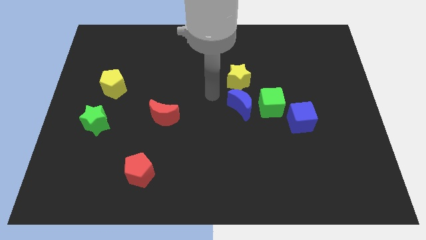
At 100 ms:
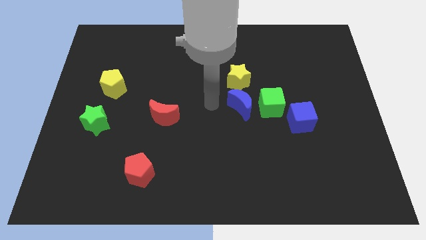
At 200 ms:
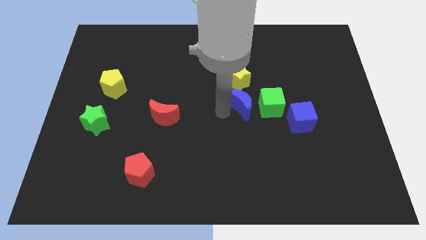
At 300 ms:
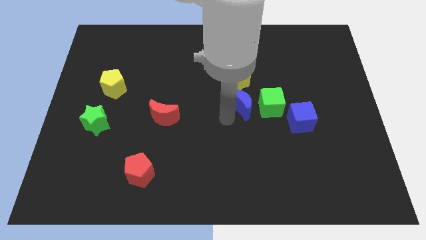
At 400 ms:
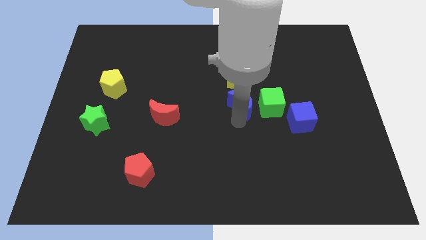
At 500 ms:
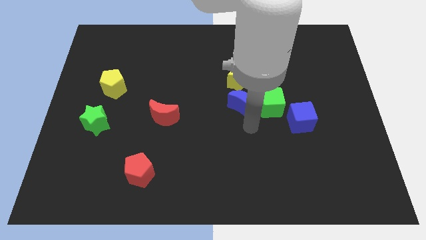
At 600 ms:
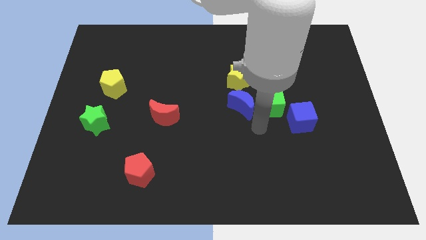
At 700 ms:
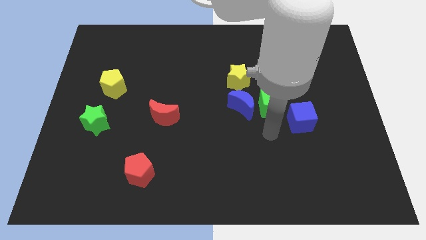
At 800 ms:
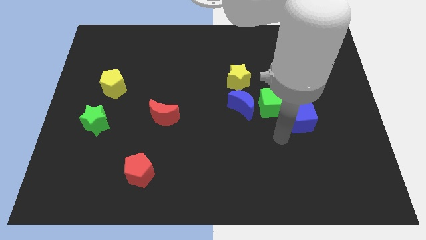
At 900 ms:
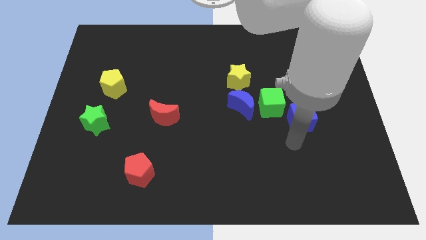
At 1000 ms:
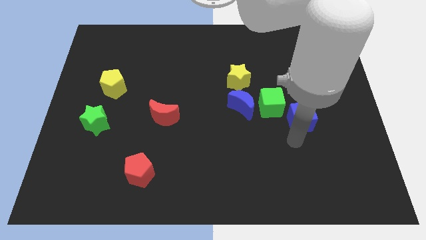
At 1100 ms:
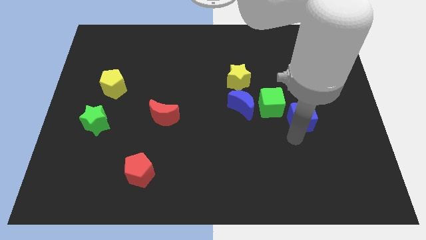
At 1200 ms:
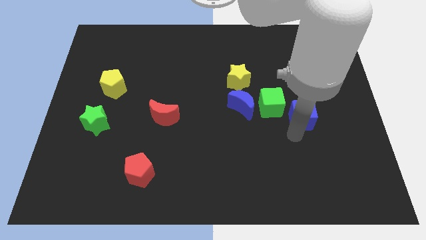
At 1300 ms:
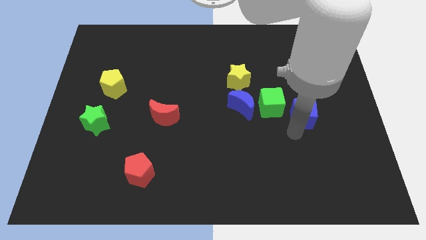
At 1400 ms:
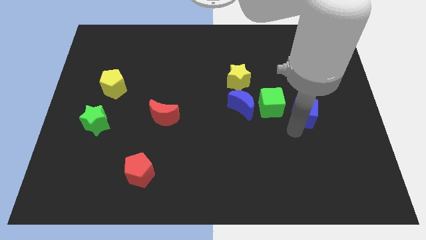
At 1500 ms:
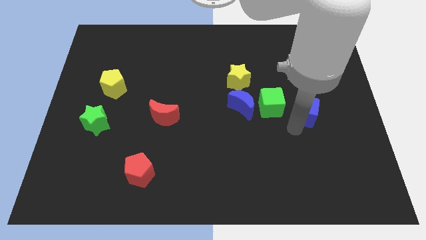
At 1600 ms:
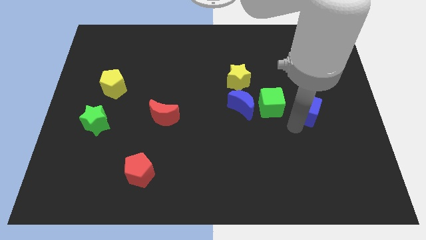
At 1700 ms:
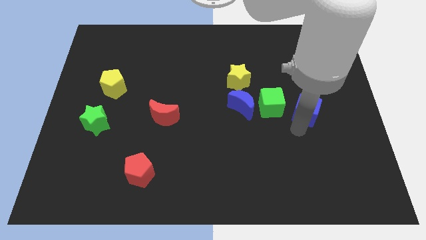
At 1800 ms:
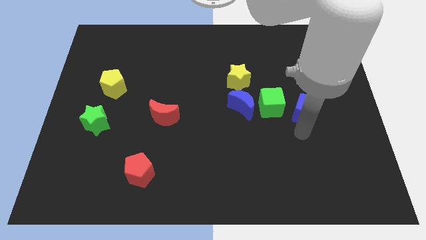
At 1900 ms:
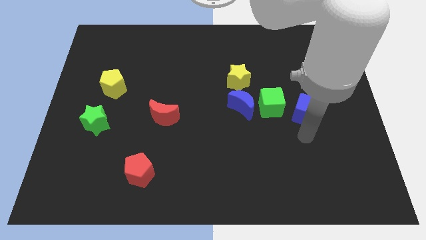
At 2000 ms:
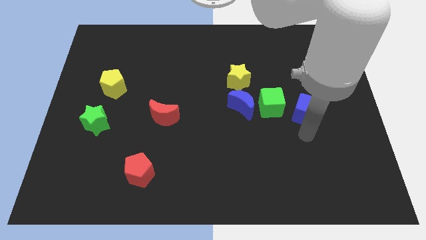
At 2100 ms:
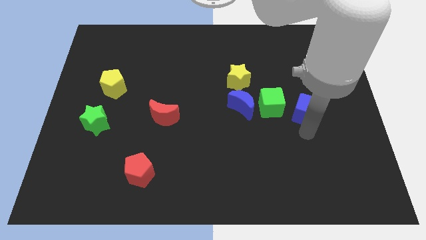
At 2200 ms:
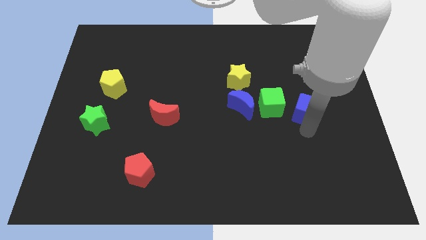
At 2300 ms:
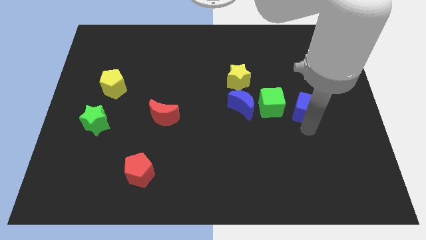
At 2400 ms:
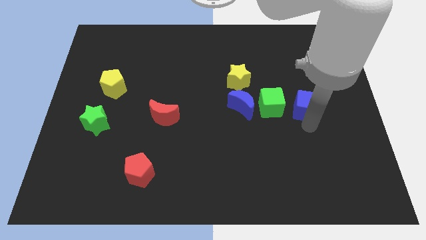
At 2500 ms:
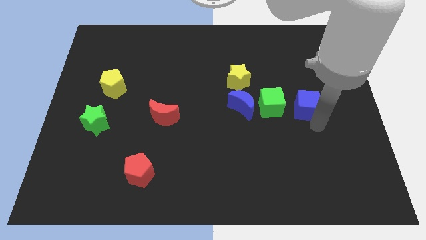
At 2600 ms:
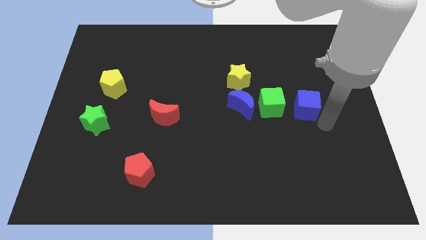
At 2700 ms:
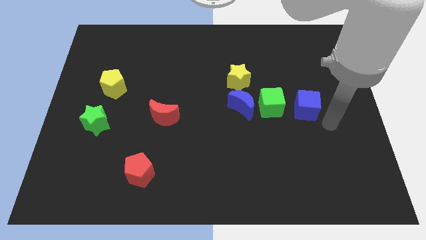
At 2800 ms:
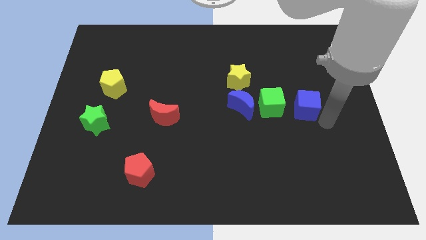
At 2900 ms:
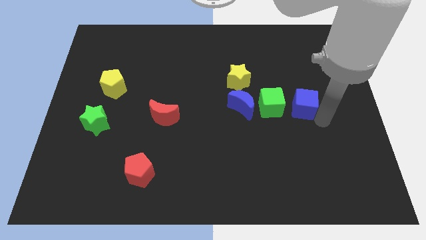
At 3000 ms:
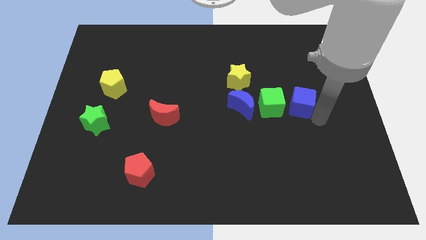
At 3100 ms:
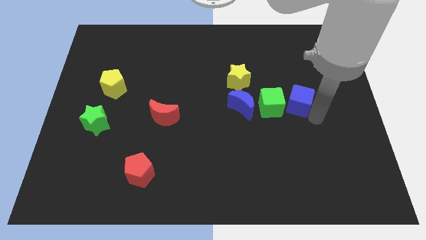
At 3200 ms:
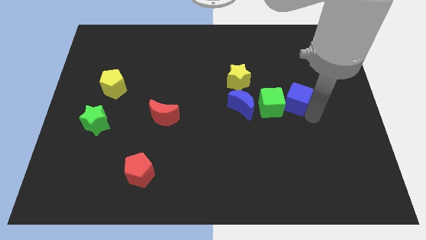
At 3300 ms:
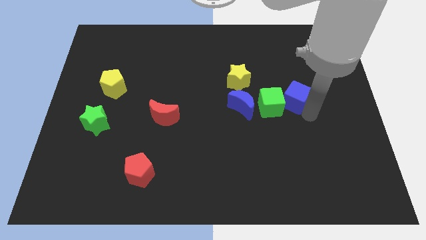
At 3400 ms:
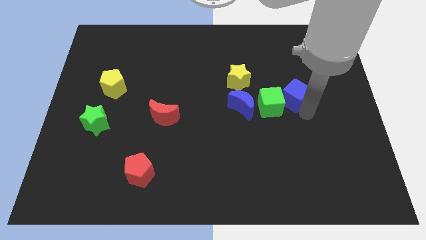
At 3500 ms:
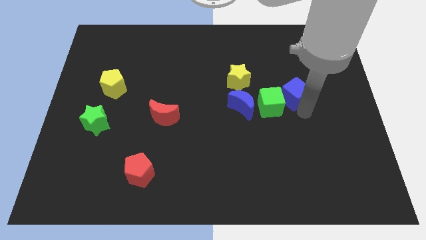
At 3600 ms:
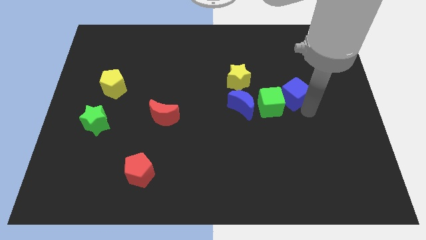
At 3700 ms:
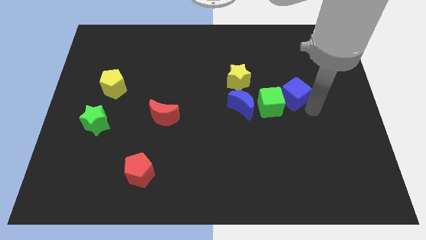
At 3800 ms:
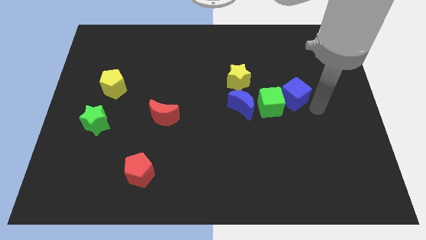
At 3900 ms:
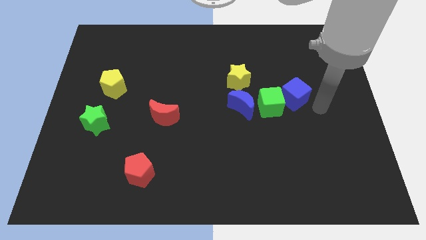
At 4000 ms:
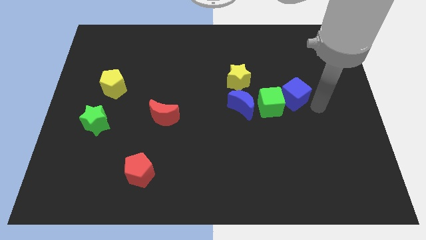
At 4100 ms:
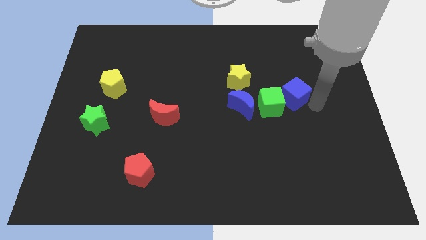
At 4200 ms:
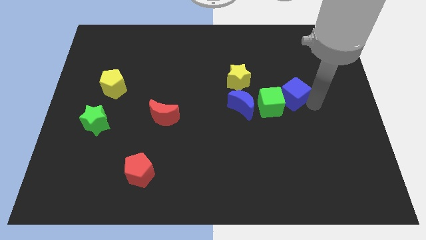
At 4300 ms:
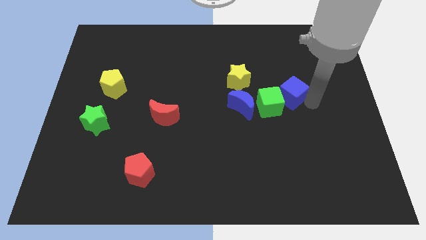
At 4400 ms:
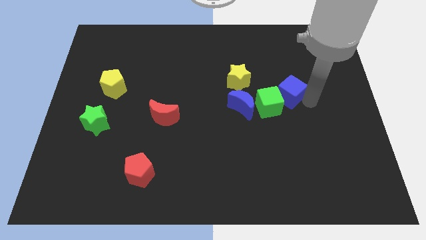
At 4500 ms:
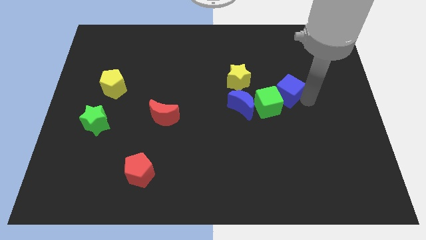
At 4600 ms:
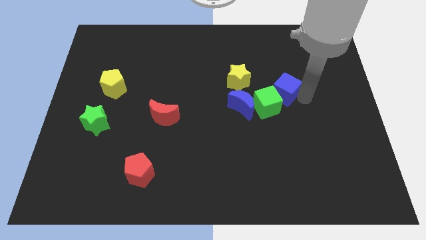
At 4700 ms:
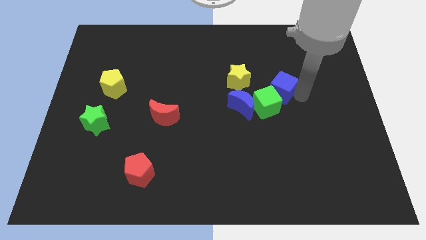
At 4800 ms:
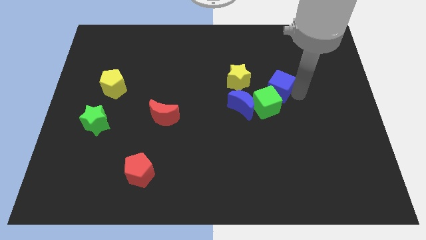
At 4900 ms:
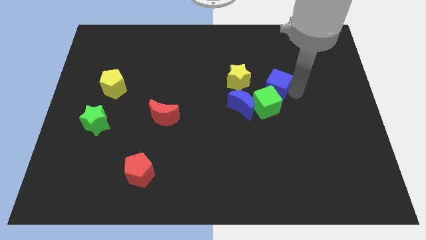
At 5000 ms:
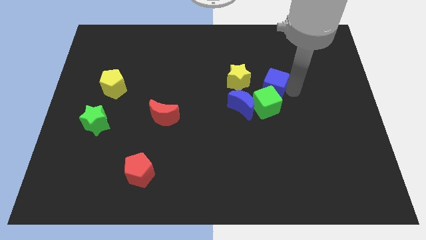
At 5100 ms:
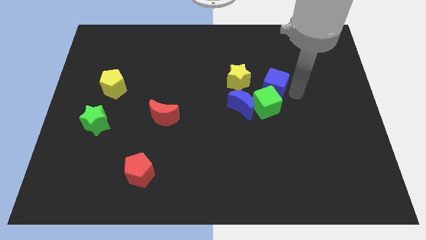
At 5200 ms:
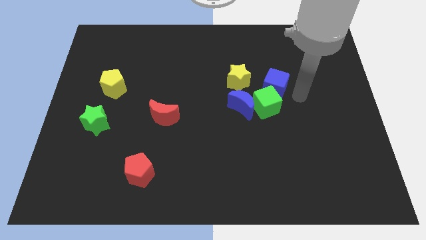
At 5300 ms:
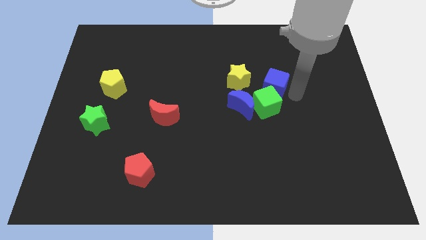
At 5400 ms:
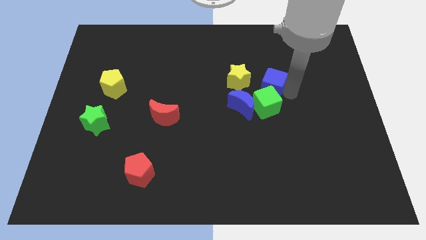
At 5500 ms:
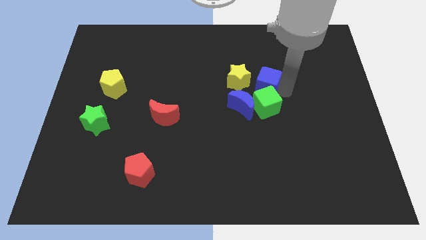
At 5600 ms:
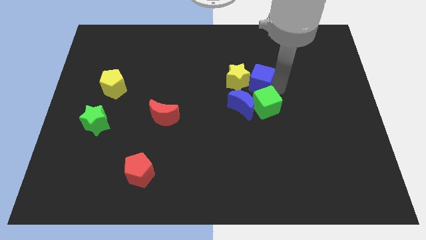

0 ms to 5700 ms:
put the blue cube to the yellow star

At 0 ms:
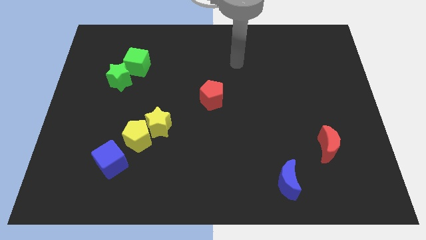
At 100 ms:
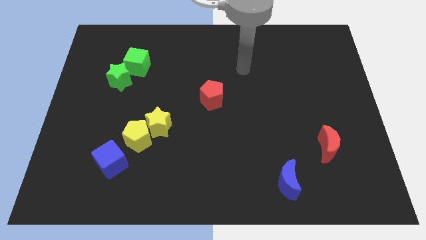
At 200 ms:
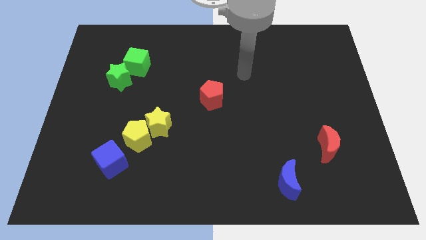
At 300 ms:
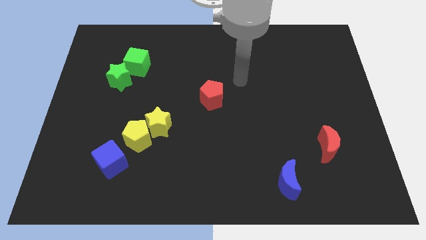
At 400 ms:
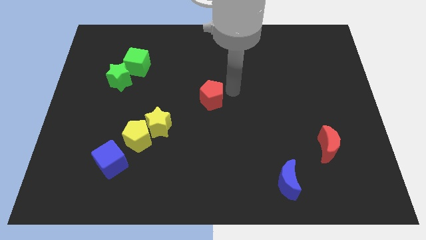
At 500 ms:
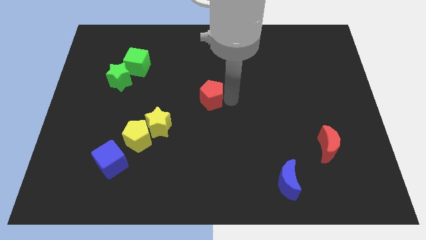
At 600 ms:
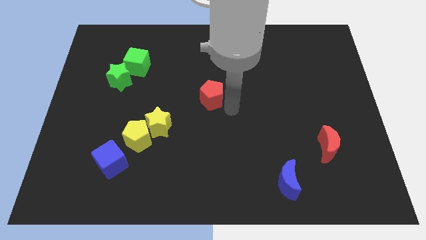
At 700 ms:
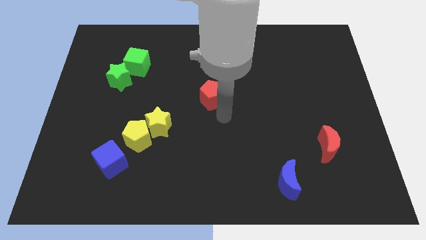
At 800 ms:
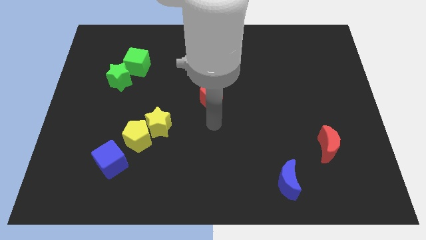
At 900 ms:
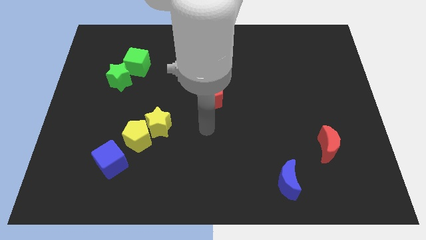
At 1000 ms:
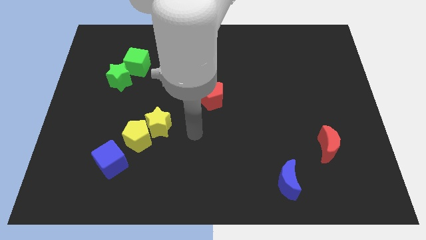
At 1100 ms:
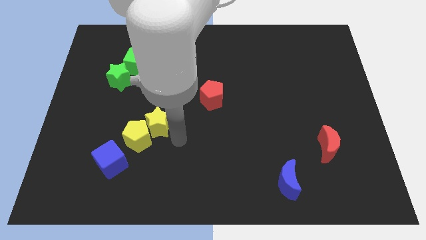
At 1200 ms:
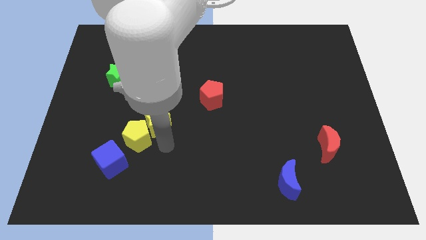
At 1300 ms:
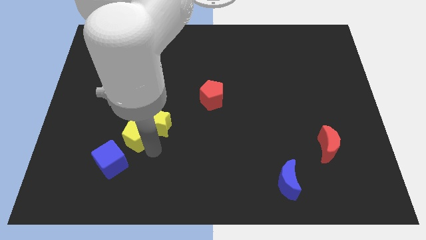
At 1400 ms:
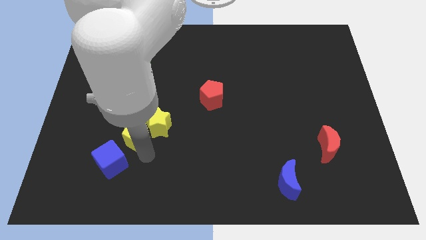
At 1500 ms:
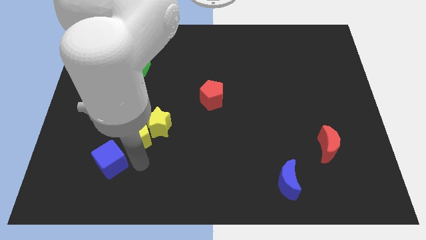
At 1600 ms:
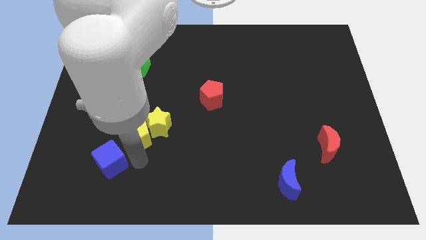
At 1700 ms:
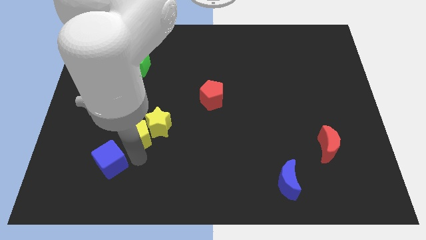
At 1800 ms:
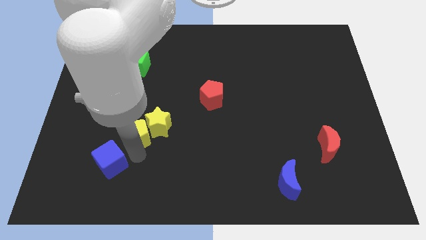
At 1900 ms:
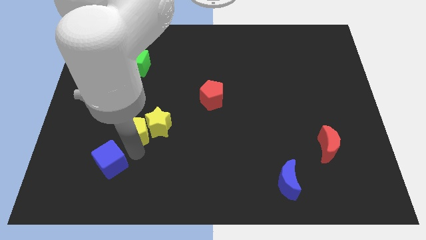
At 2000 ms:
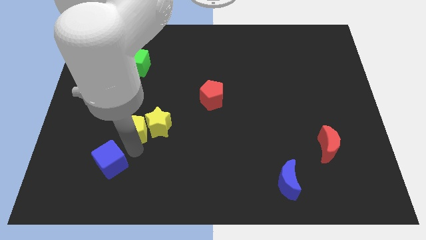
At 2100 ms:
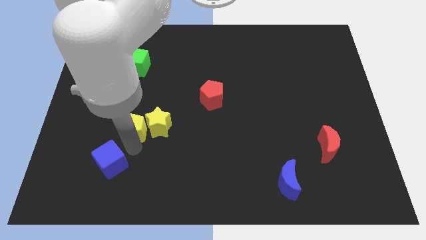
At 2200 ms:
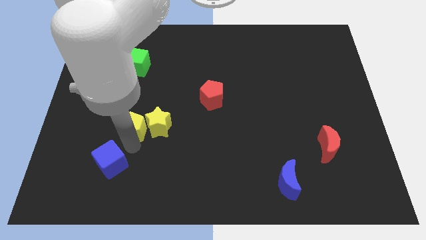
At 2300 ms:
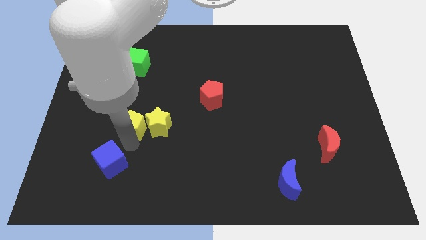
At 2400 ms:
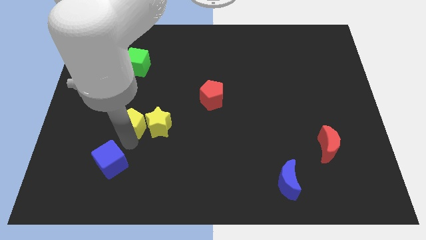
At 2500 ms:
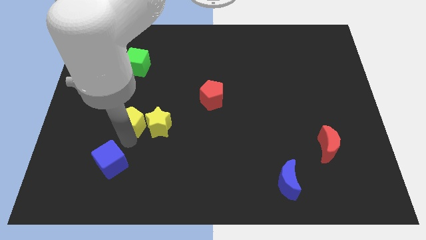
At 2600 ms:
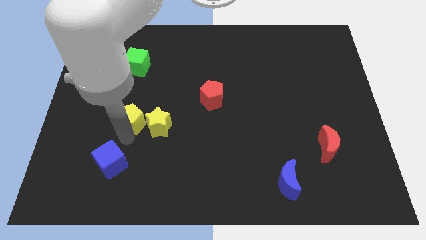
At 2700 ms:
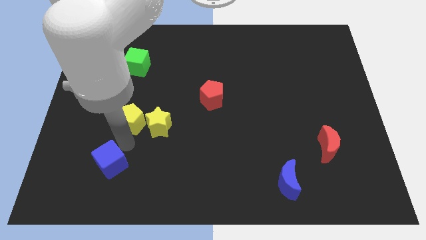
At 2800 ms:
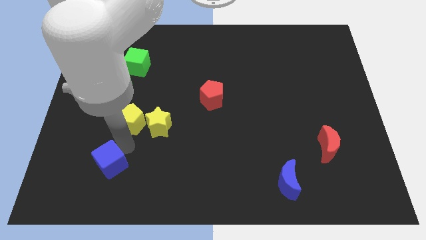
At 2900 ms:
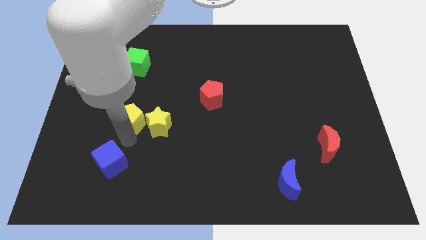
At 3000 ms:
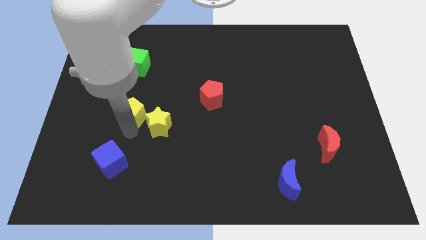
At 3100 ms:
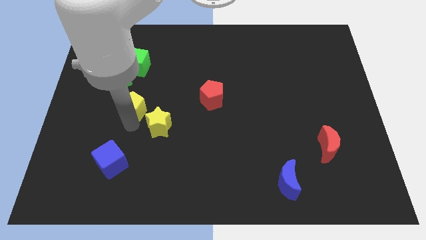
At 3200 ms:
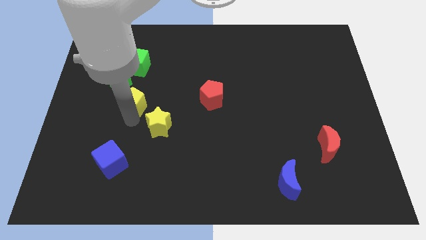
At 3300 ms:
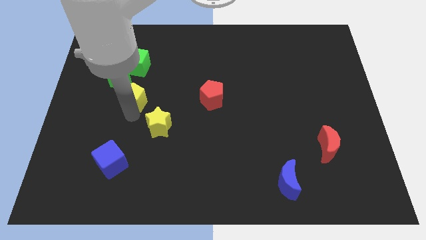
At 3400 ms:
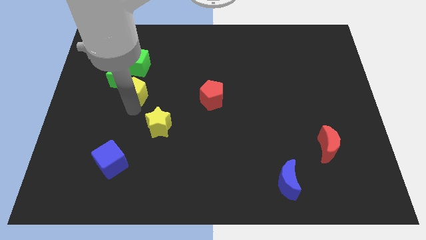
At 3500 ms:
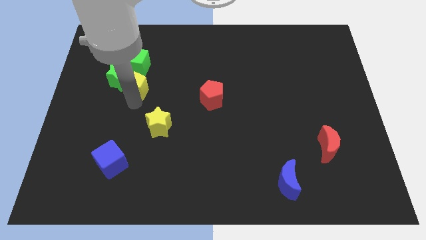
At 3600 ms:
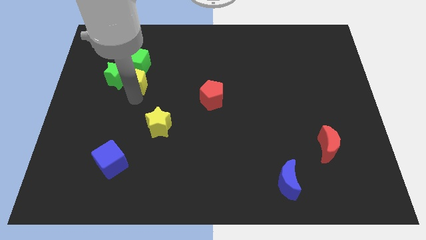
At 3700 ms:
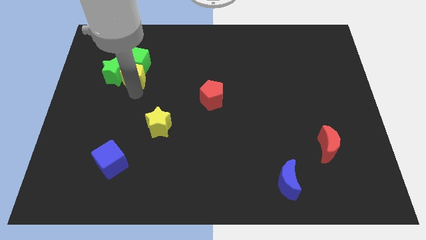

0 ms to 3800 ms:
put the yellow pentagon towards the green cube
